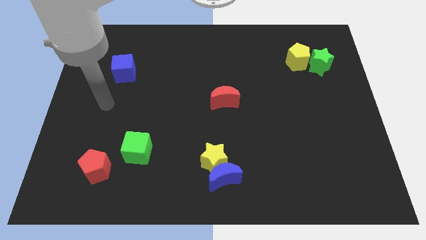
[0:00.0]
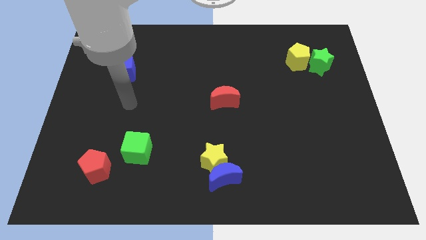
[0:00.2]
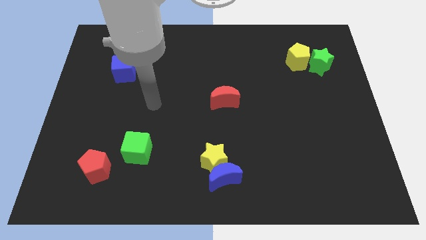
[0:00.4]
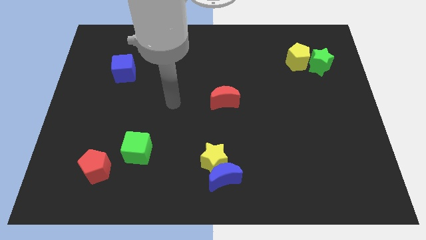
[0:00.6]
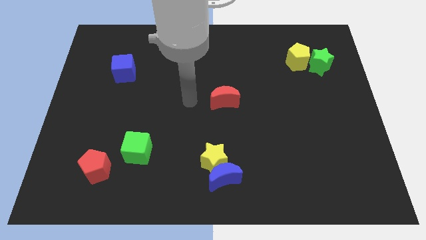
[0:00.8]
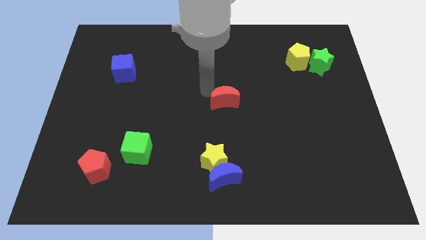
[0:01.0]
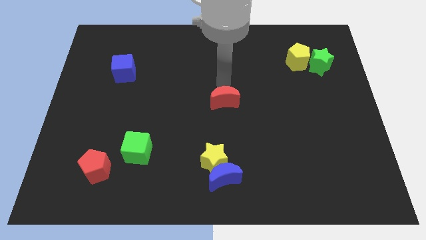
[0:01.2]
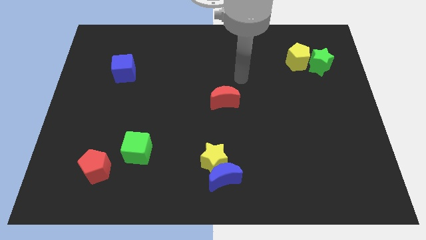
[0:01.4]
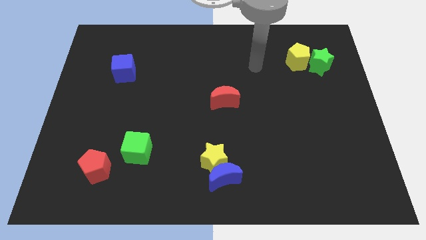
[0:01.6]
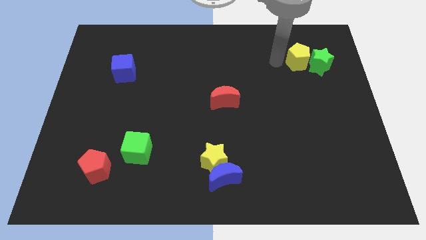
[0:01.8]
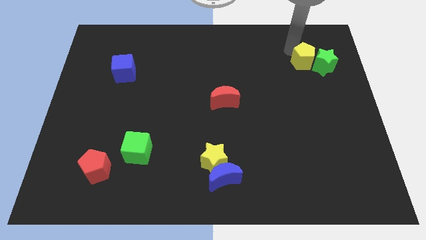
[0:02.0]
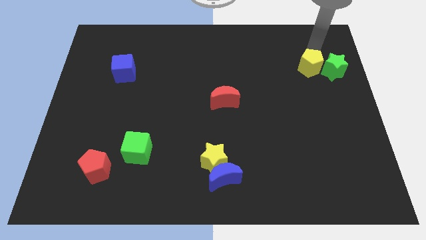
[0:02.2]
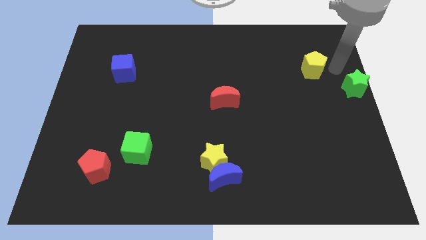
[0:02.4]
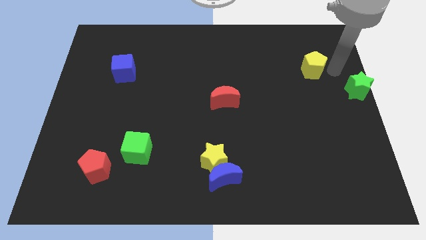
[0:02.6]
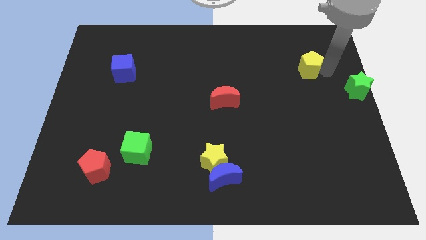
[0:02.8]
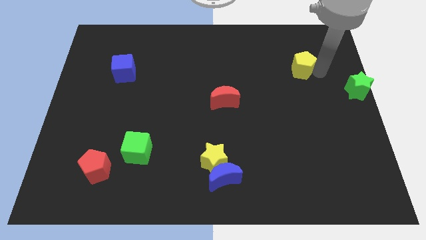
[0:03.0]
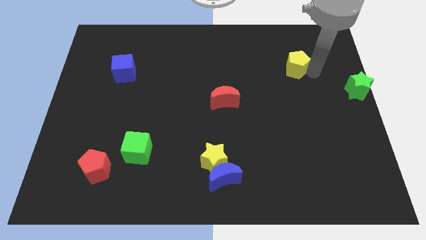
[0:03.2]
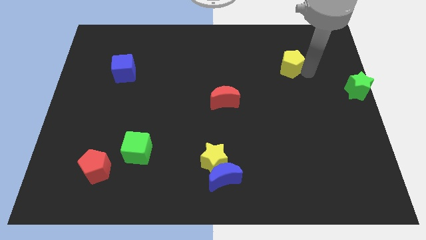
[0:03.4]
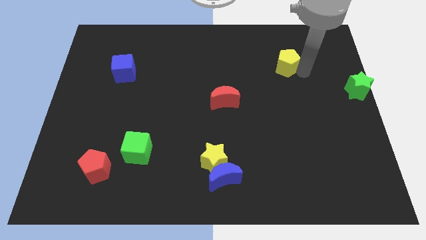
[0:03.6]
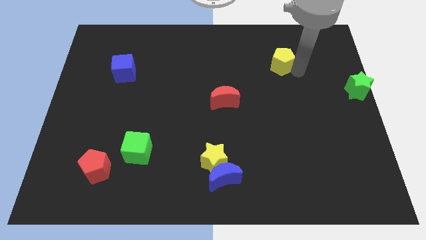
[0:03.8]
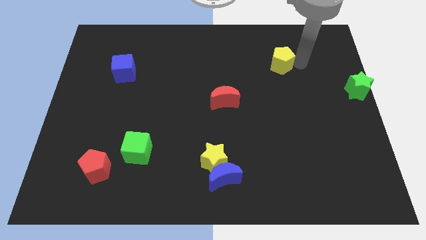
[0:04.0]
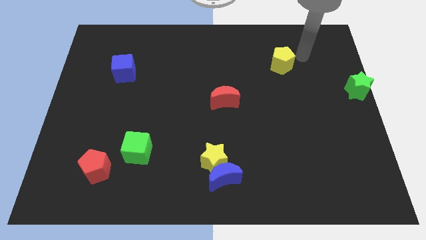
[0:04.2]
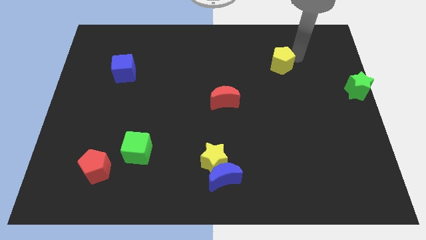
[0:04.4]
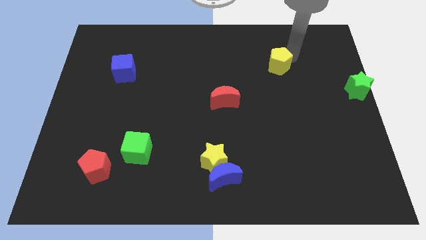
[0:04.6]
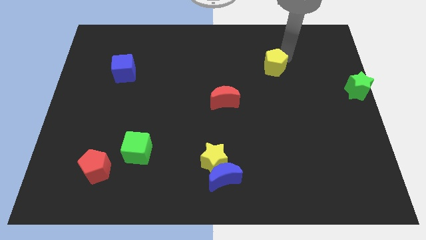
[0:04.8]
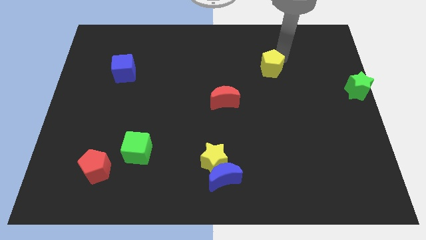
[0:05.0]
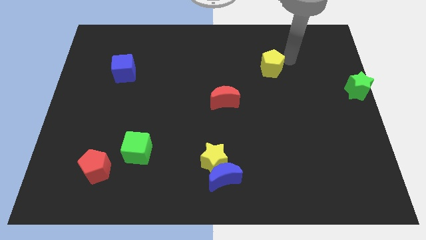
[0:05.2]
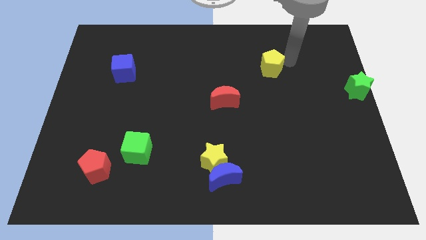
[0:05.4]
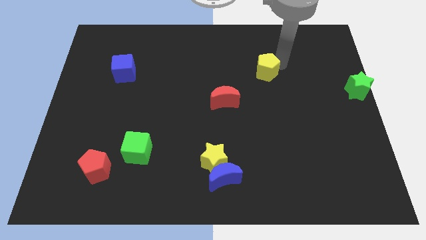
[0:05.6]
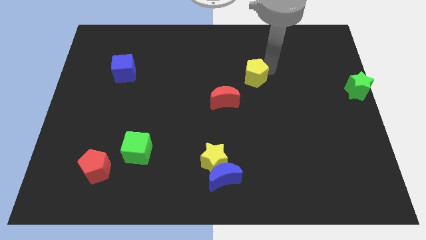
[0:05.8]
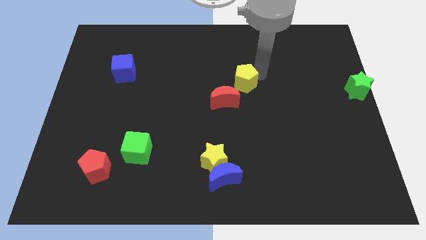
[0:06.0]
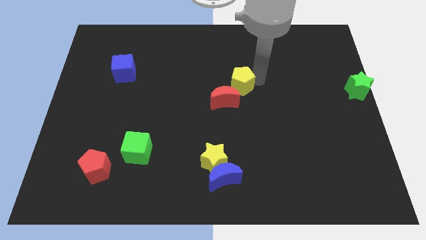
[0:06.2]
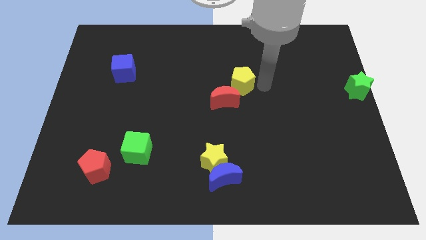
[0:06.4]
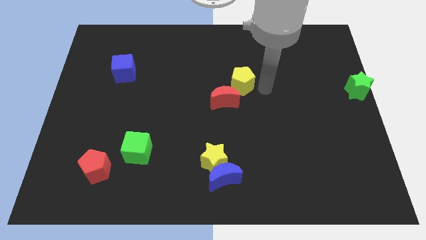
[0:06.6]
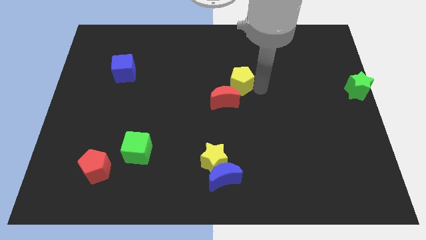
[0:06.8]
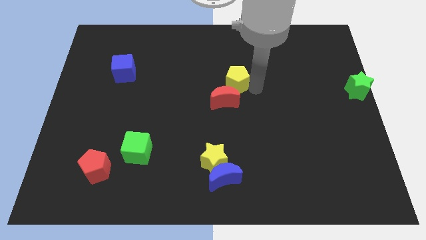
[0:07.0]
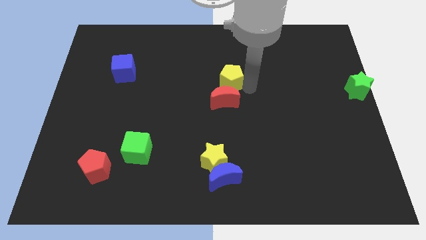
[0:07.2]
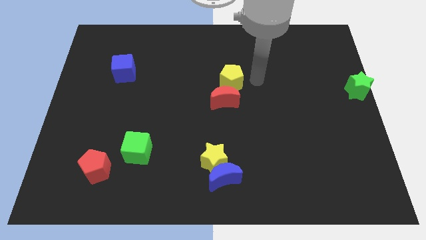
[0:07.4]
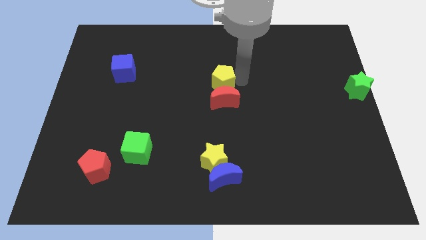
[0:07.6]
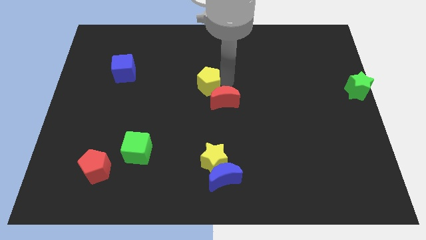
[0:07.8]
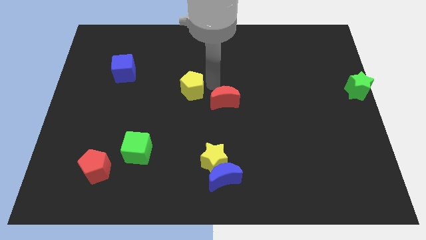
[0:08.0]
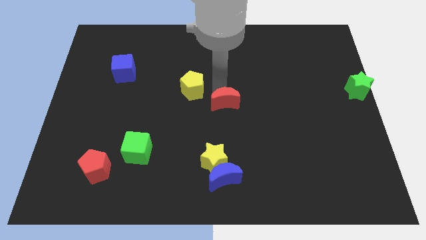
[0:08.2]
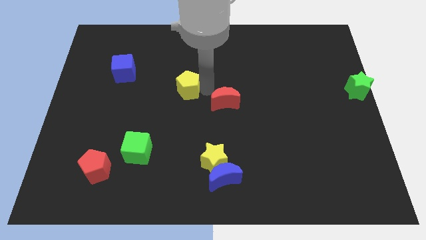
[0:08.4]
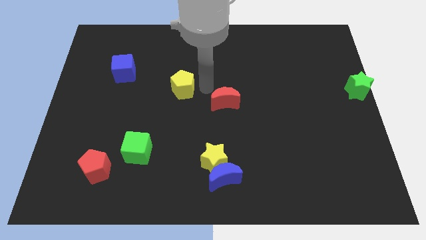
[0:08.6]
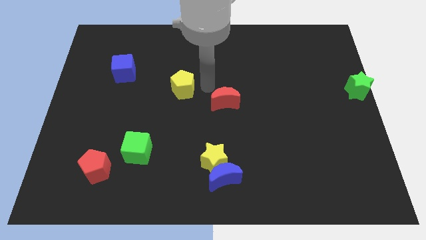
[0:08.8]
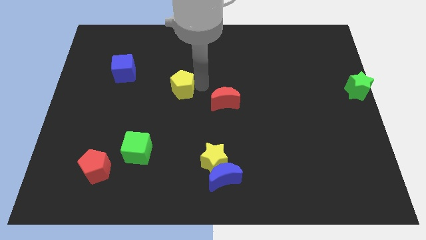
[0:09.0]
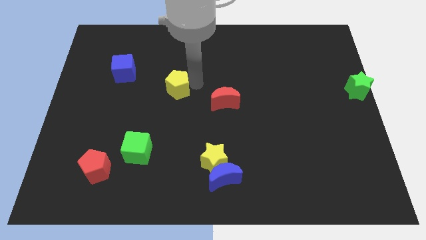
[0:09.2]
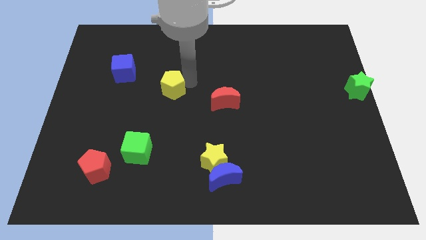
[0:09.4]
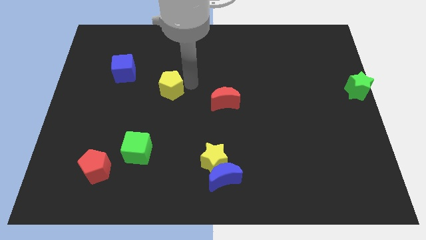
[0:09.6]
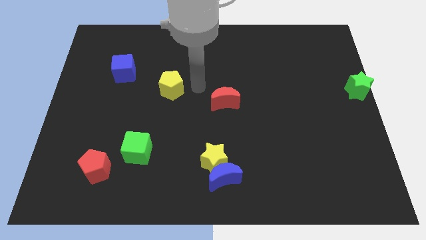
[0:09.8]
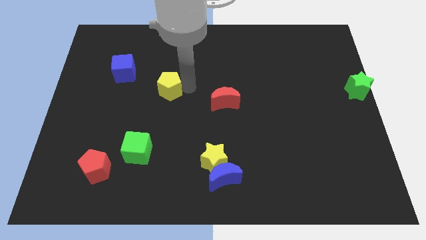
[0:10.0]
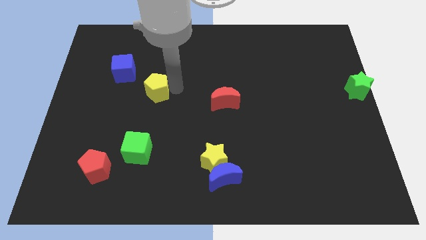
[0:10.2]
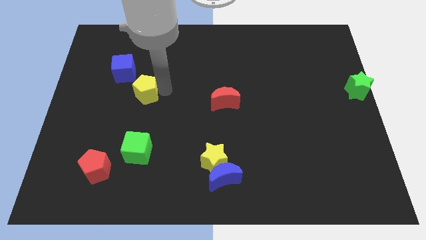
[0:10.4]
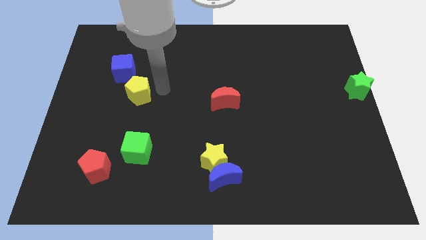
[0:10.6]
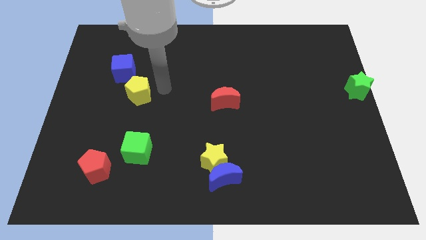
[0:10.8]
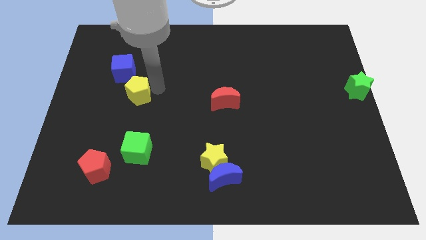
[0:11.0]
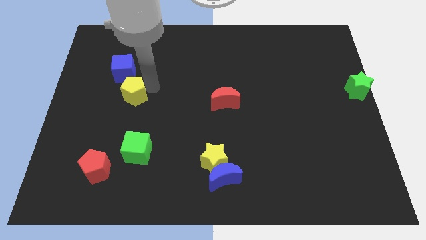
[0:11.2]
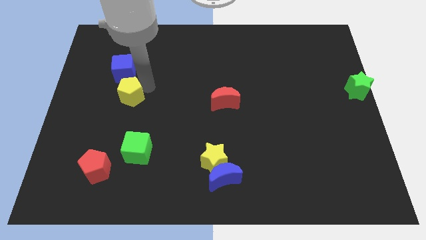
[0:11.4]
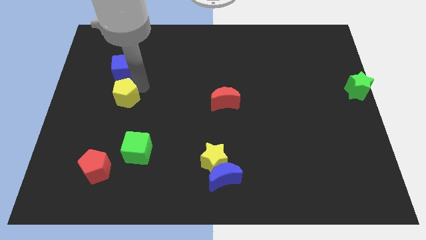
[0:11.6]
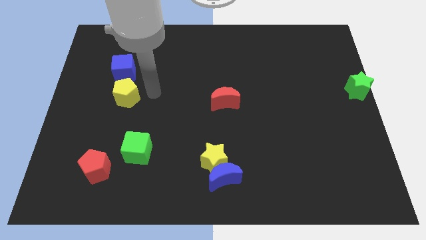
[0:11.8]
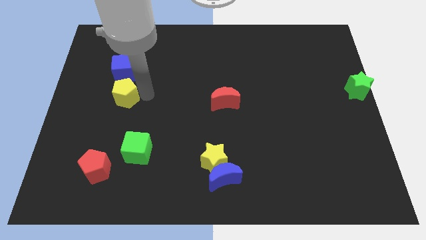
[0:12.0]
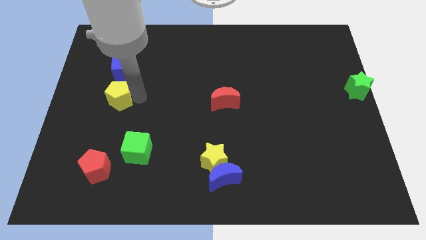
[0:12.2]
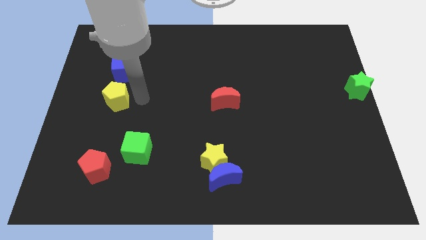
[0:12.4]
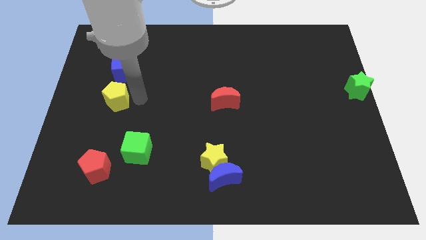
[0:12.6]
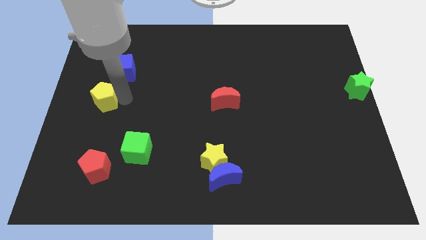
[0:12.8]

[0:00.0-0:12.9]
slide the yellow pentagon to the center left
